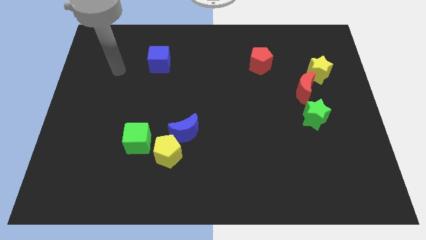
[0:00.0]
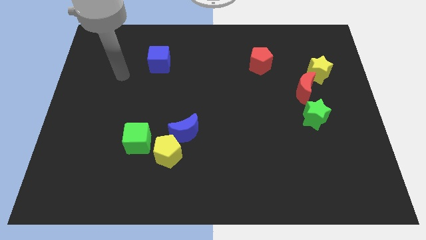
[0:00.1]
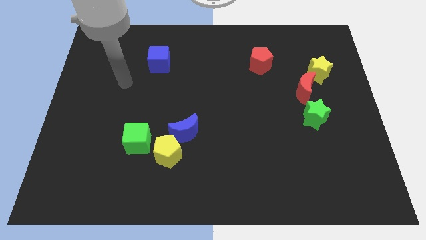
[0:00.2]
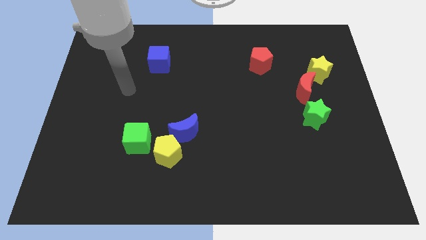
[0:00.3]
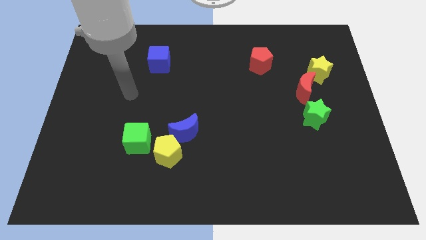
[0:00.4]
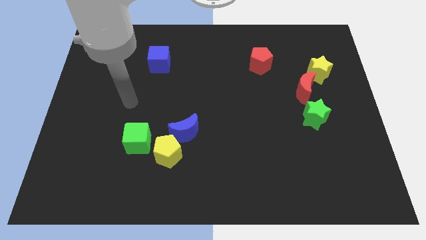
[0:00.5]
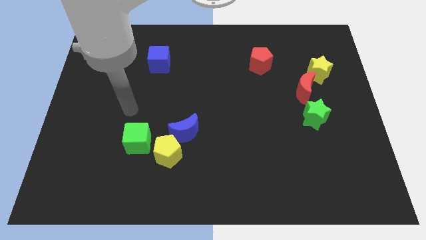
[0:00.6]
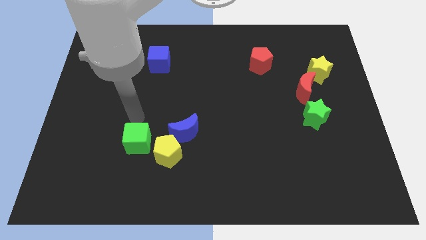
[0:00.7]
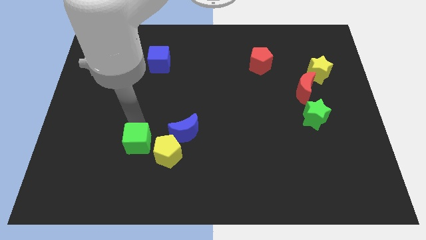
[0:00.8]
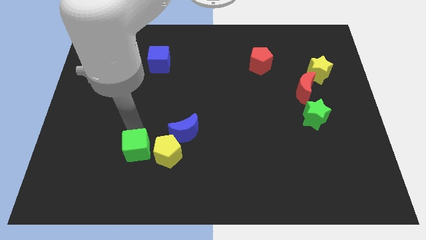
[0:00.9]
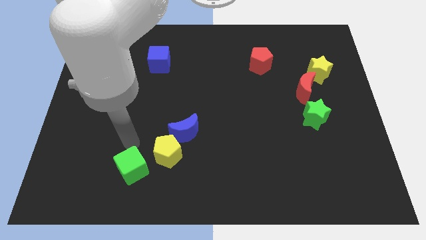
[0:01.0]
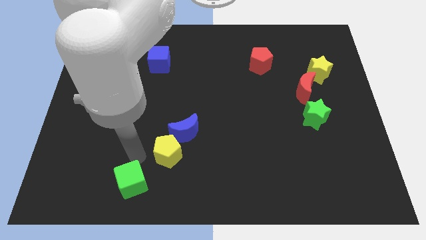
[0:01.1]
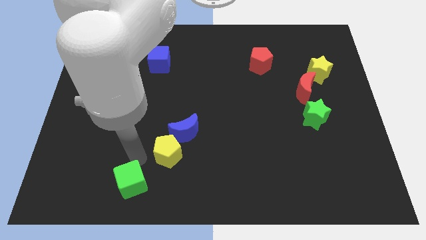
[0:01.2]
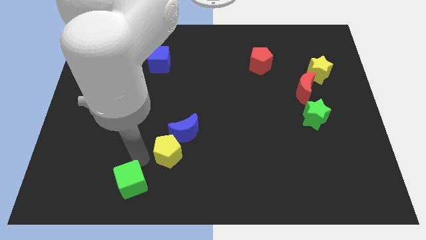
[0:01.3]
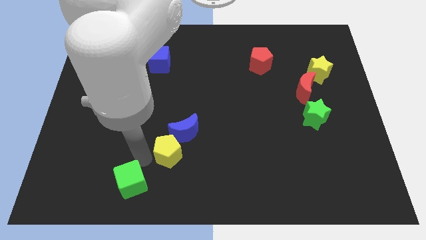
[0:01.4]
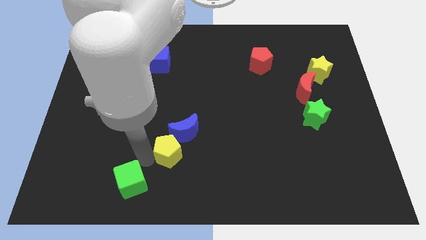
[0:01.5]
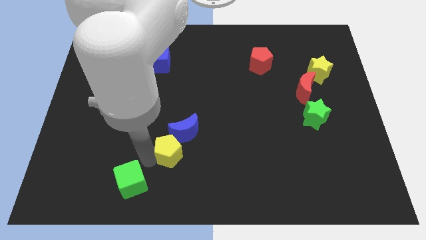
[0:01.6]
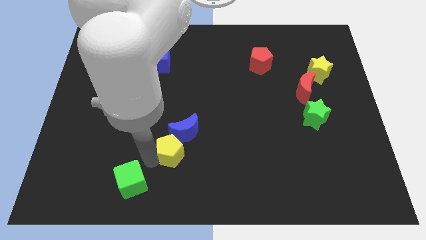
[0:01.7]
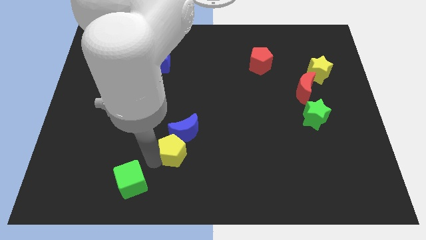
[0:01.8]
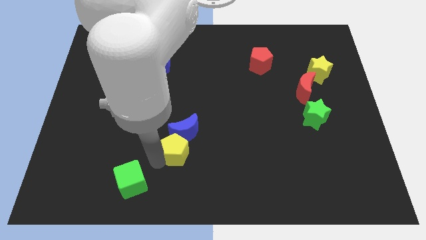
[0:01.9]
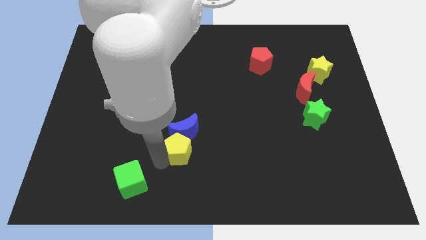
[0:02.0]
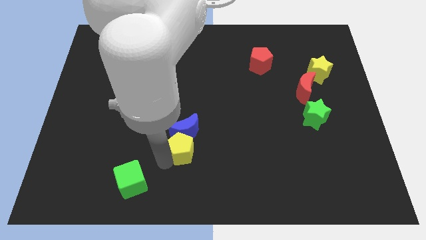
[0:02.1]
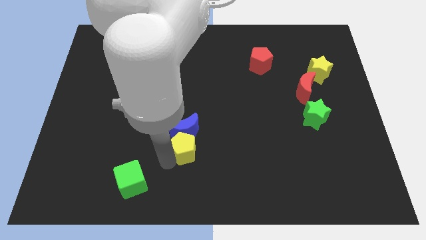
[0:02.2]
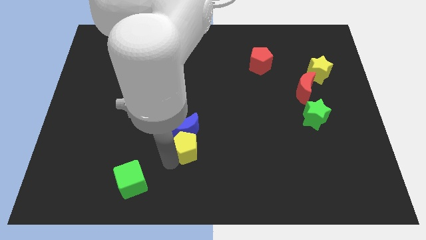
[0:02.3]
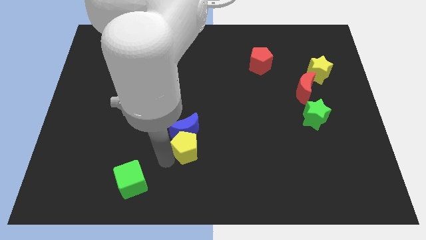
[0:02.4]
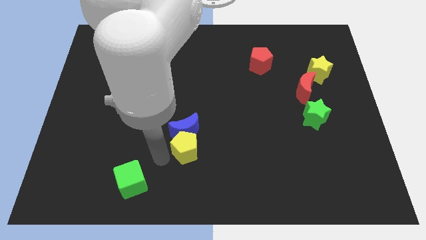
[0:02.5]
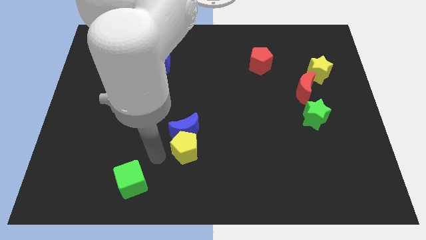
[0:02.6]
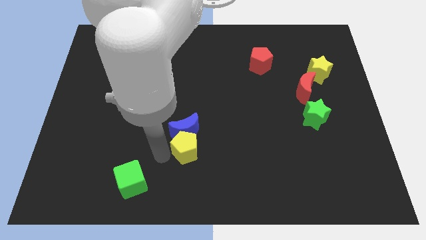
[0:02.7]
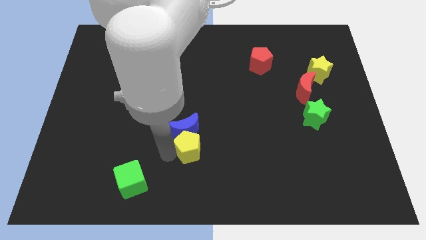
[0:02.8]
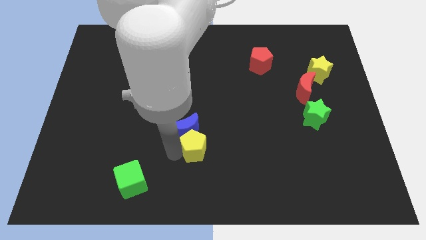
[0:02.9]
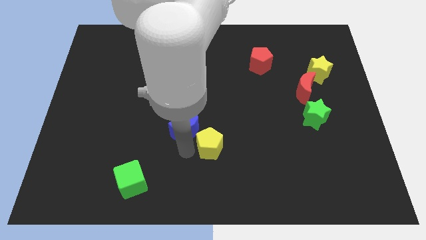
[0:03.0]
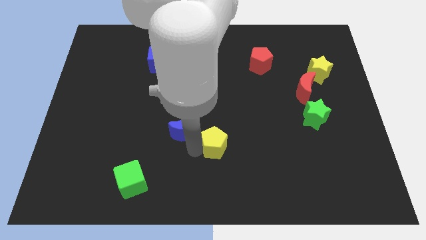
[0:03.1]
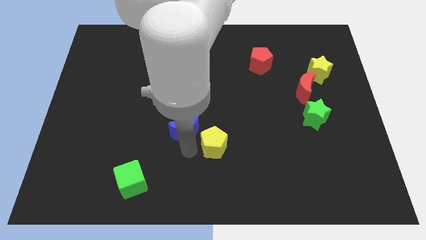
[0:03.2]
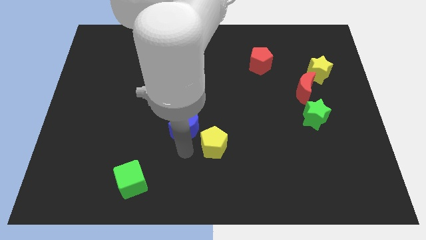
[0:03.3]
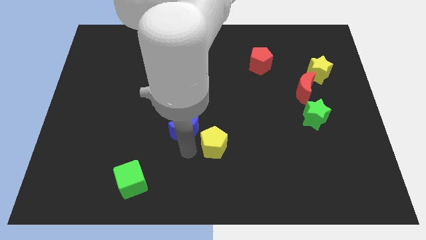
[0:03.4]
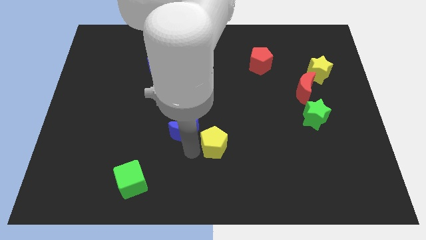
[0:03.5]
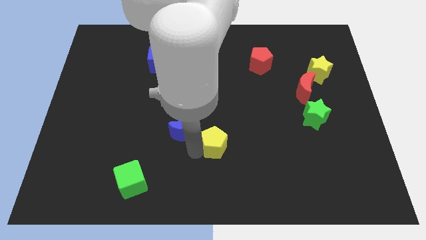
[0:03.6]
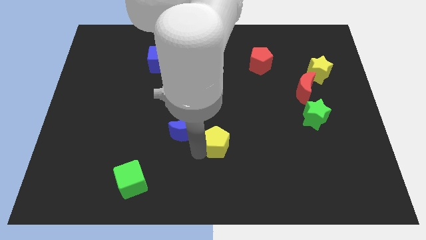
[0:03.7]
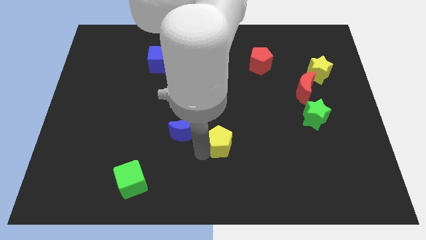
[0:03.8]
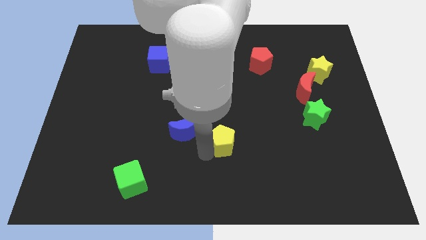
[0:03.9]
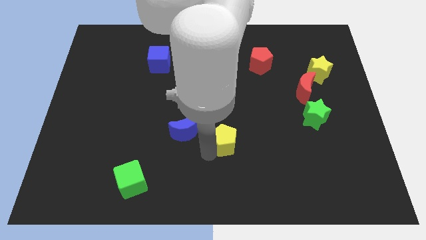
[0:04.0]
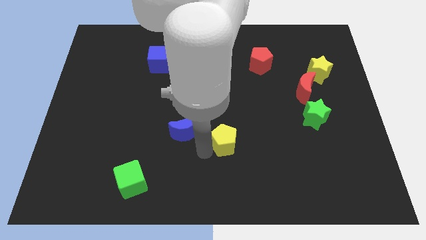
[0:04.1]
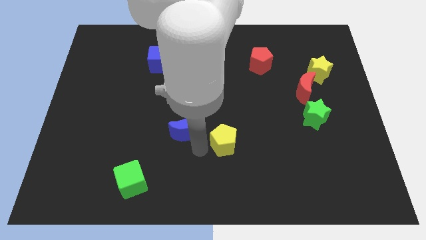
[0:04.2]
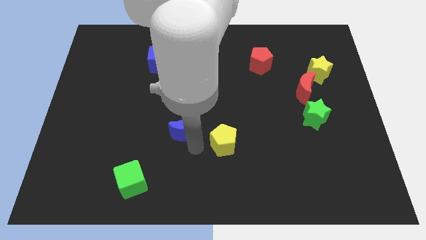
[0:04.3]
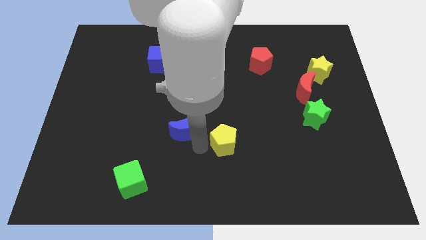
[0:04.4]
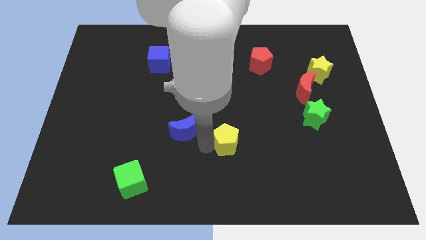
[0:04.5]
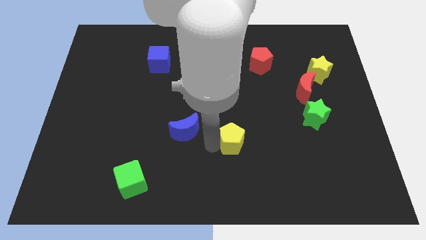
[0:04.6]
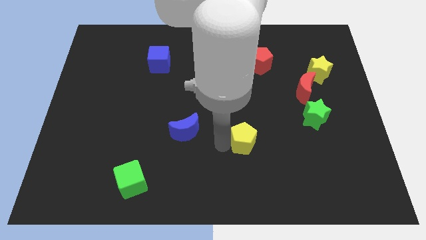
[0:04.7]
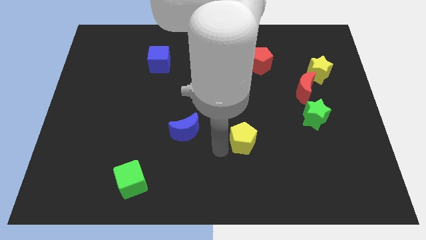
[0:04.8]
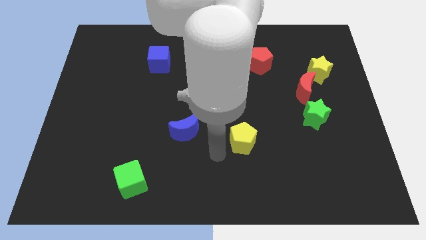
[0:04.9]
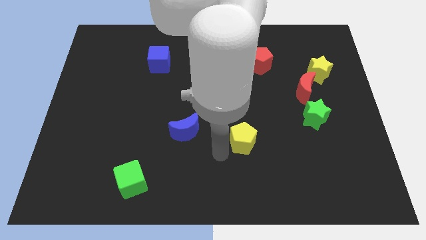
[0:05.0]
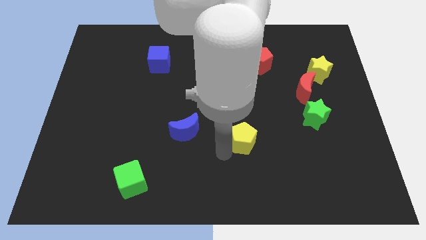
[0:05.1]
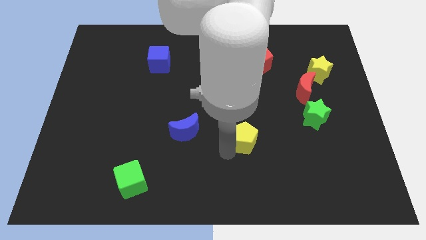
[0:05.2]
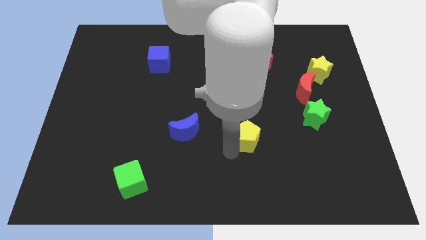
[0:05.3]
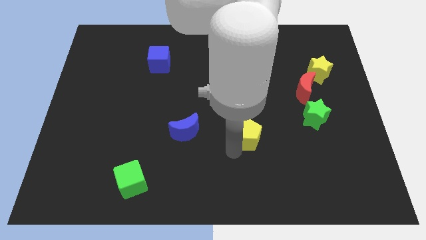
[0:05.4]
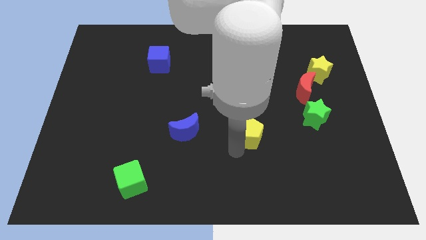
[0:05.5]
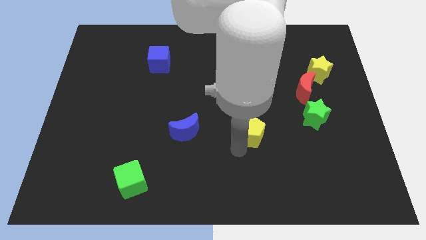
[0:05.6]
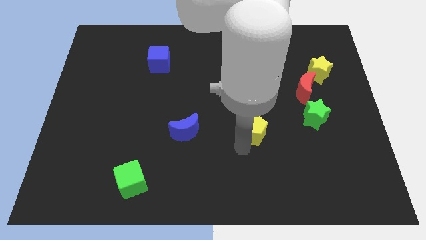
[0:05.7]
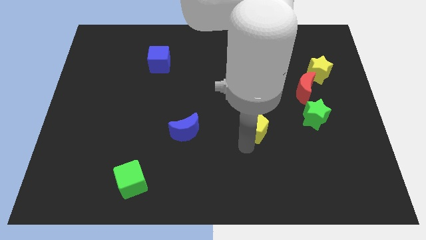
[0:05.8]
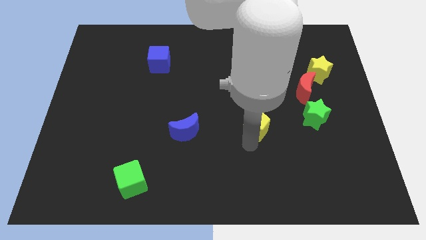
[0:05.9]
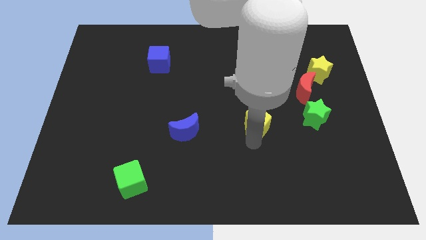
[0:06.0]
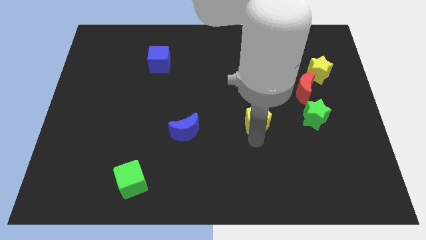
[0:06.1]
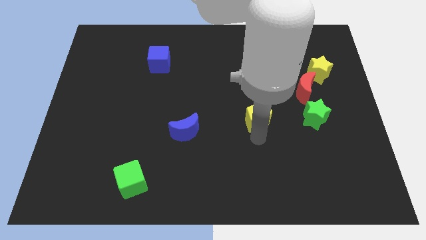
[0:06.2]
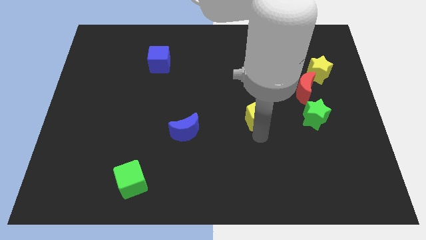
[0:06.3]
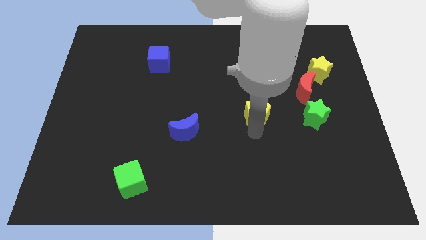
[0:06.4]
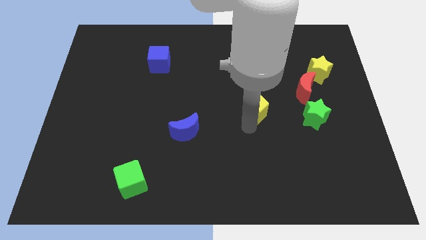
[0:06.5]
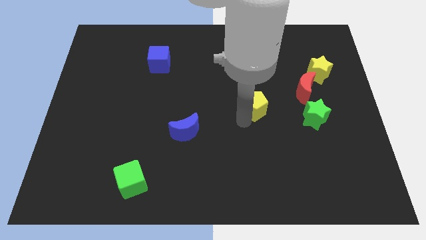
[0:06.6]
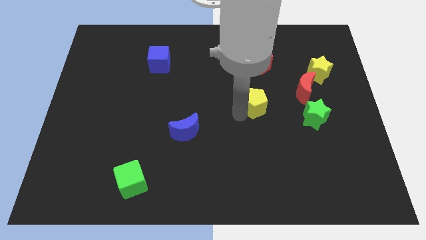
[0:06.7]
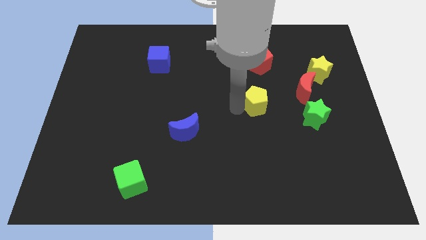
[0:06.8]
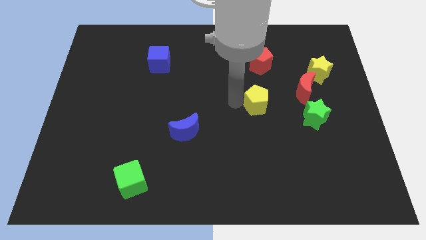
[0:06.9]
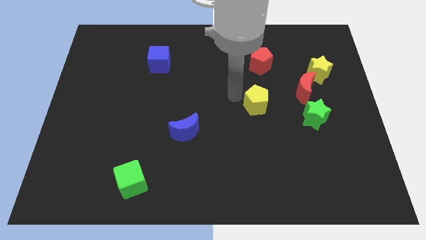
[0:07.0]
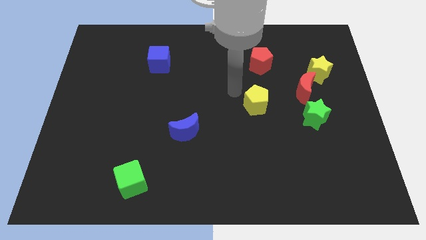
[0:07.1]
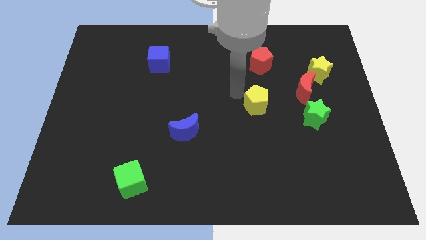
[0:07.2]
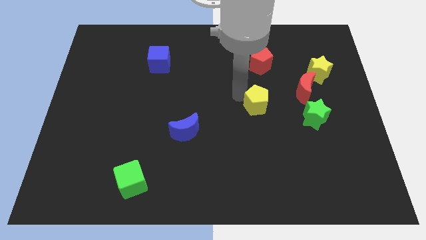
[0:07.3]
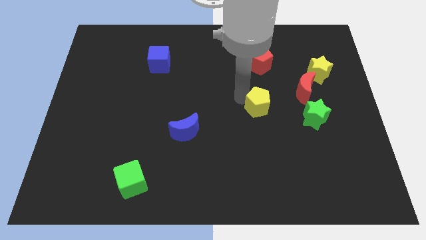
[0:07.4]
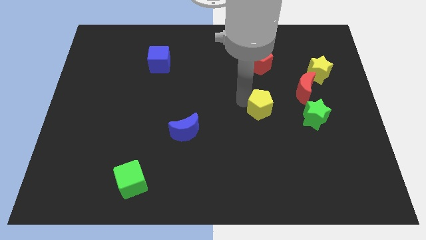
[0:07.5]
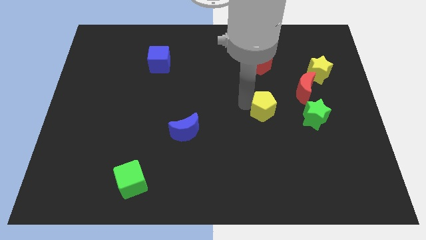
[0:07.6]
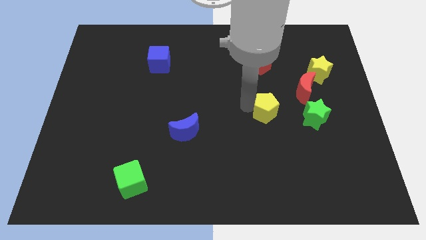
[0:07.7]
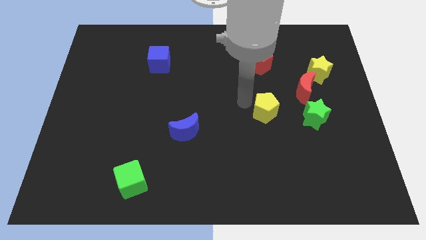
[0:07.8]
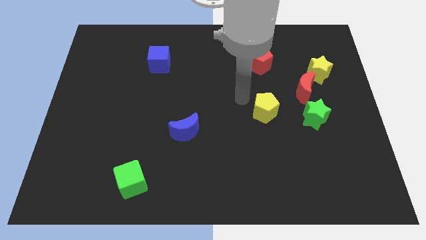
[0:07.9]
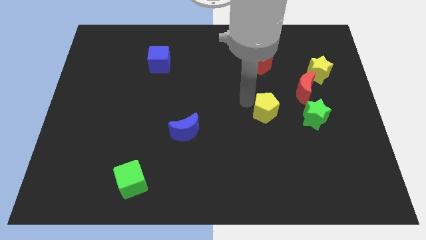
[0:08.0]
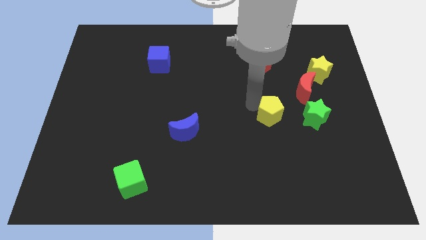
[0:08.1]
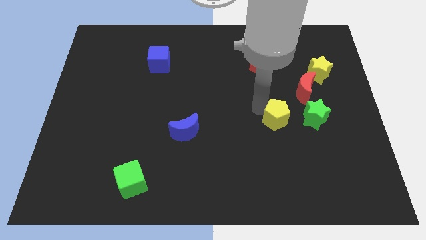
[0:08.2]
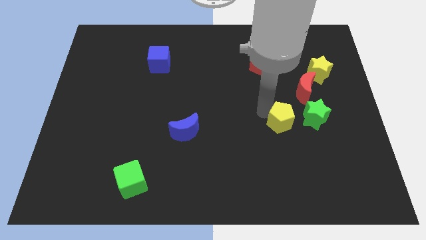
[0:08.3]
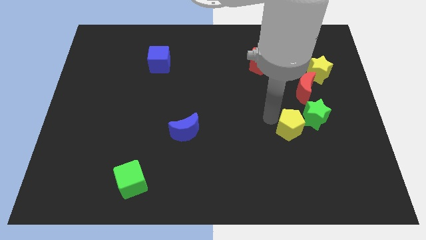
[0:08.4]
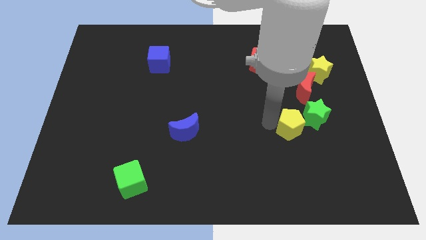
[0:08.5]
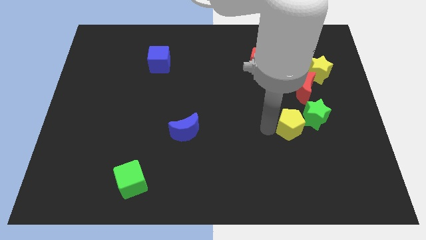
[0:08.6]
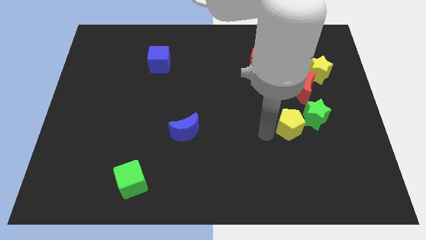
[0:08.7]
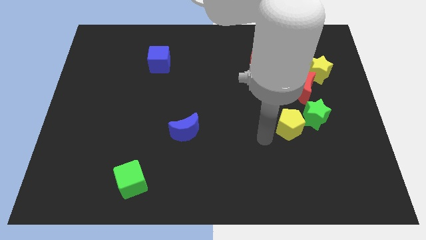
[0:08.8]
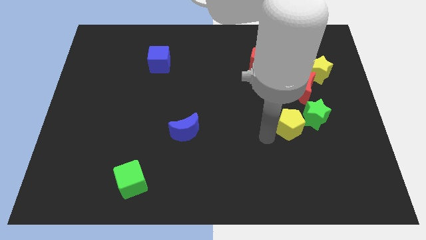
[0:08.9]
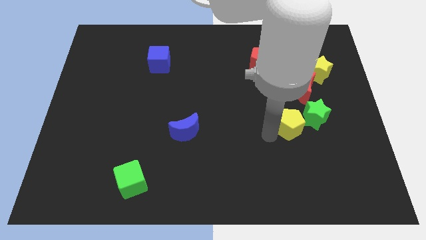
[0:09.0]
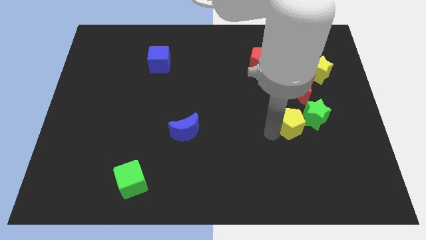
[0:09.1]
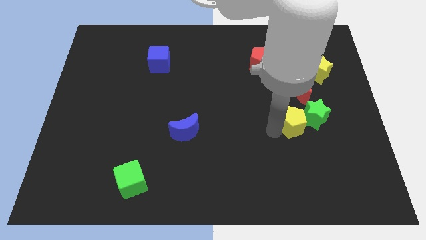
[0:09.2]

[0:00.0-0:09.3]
slide the yellow pentagon close to the green star
